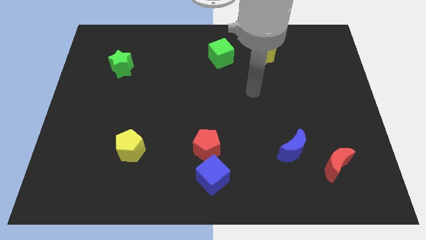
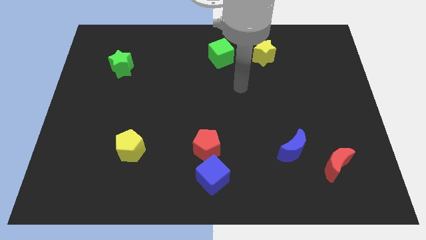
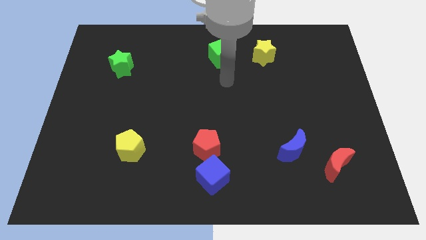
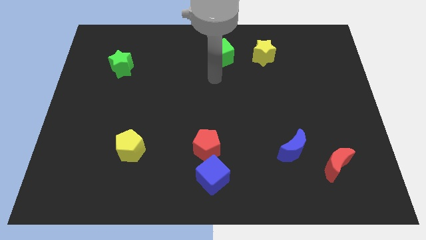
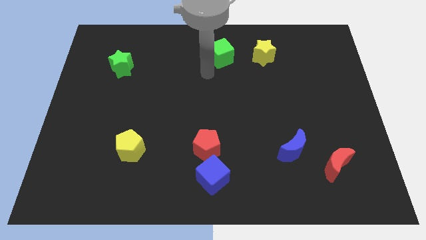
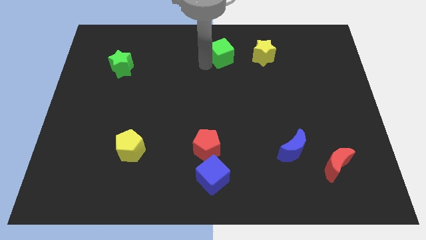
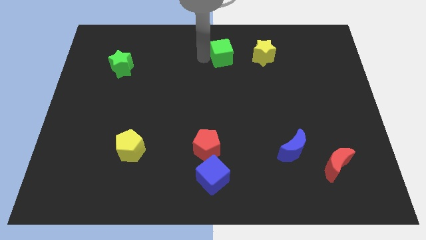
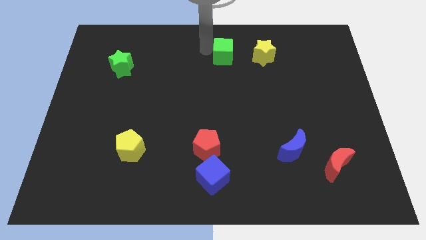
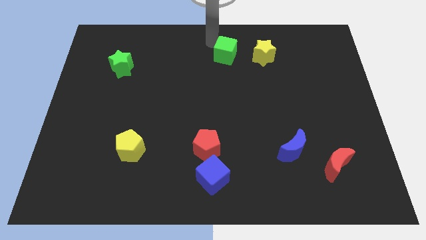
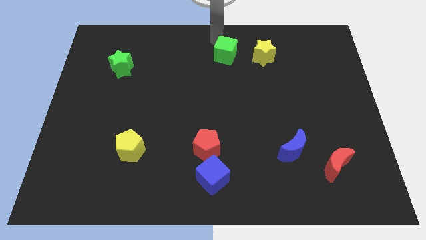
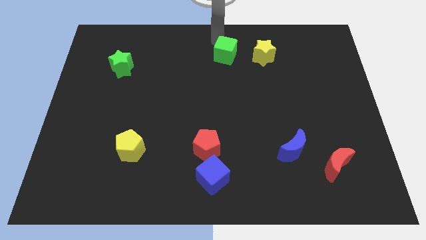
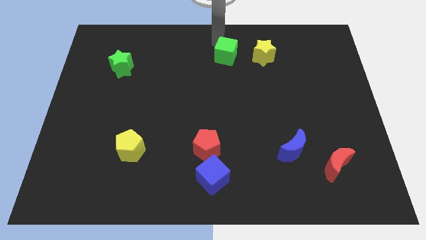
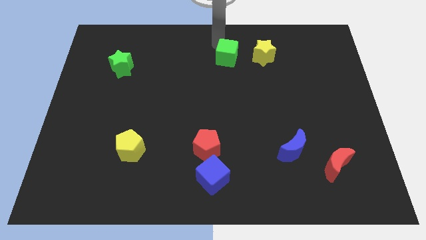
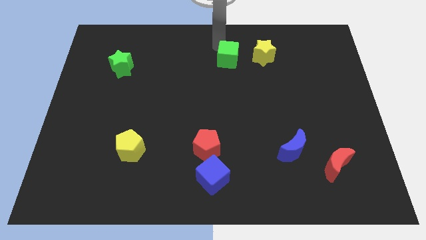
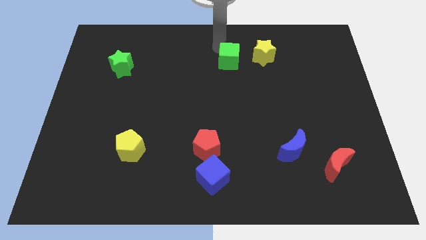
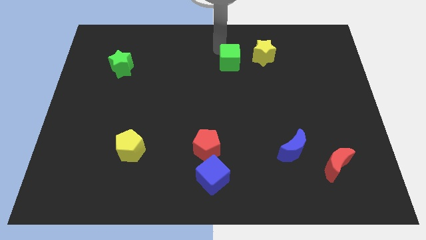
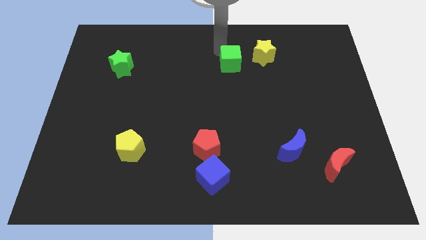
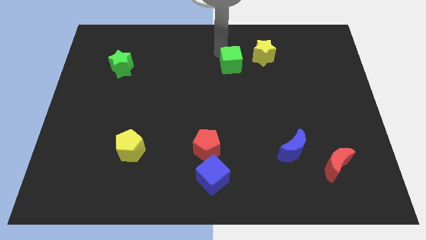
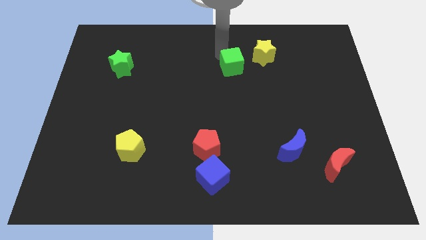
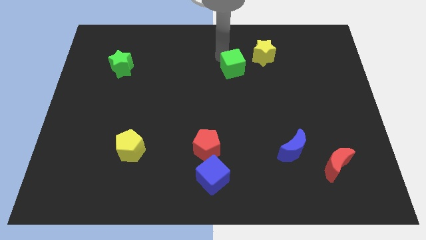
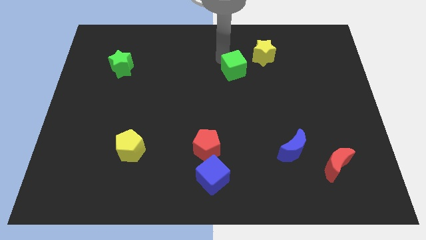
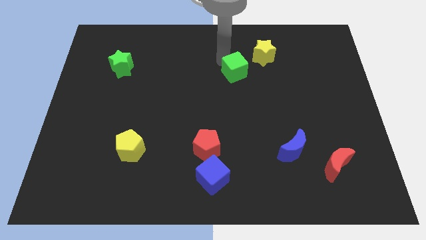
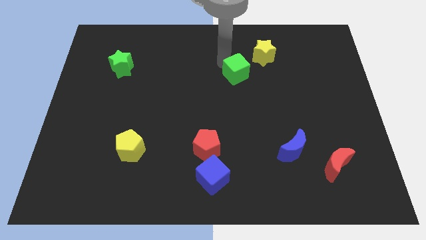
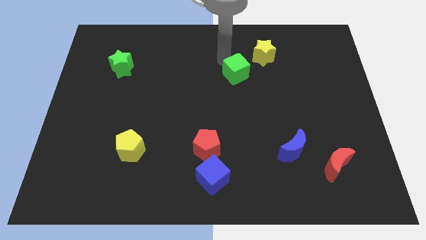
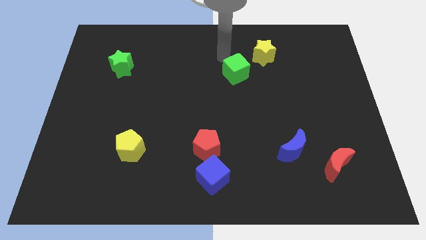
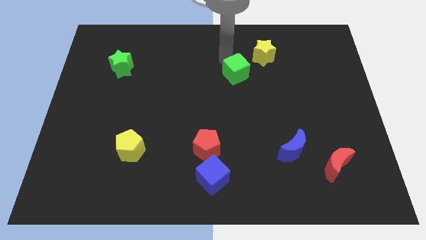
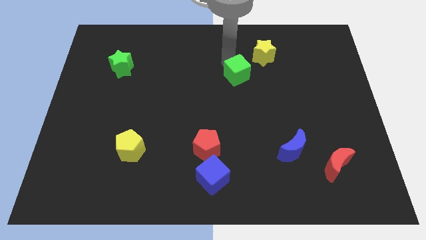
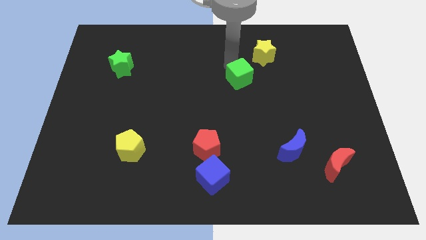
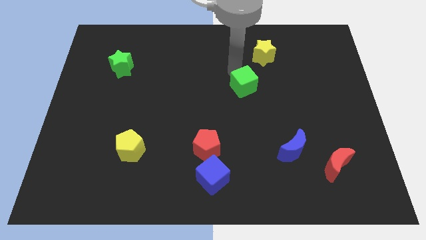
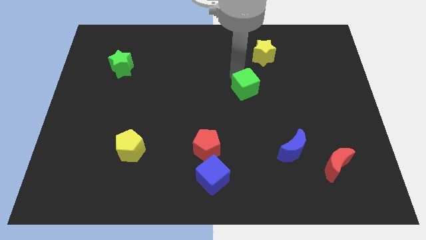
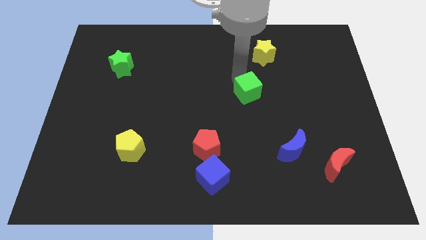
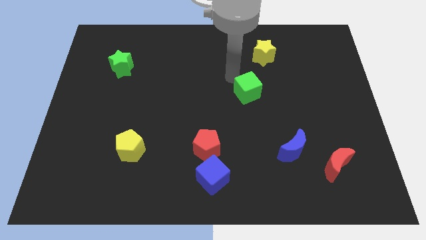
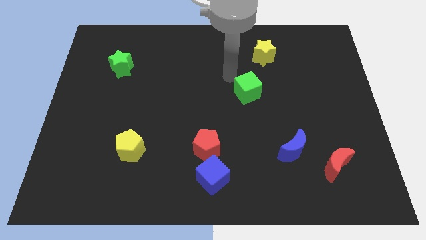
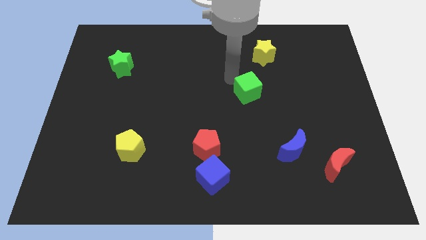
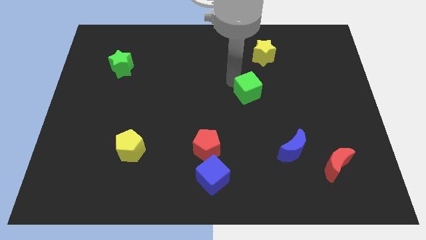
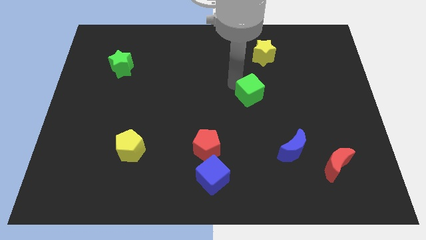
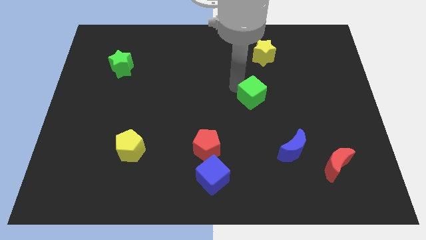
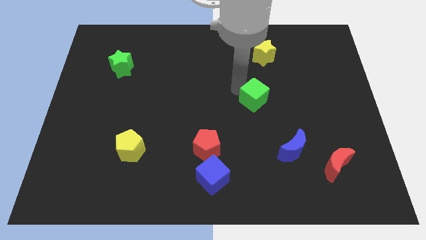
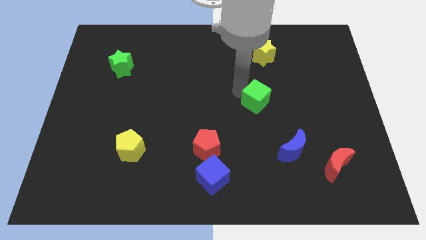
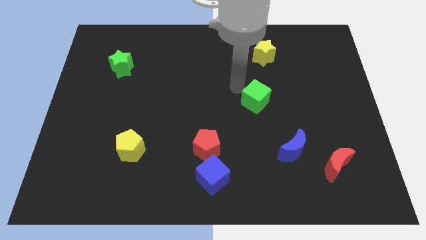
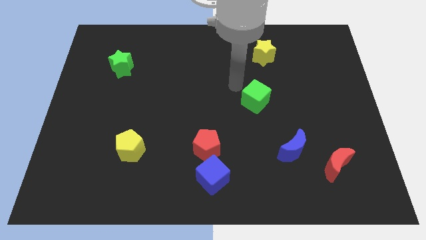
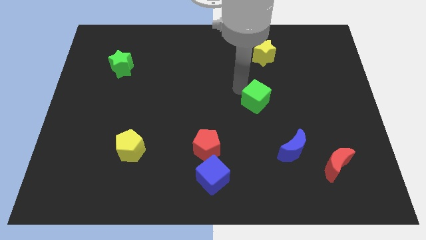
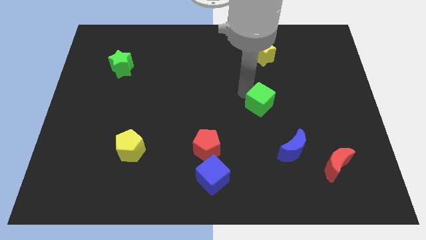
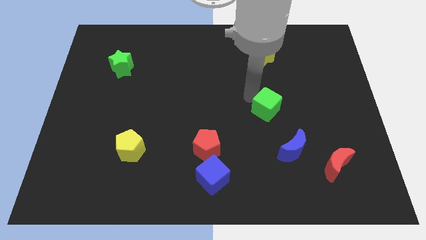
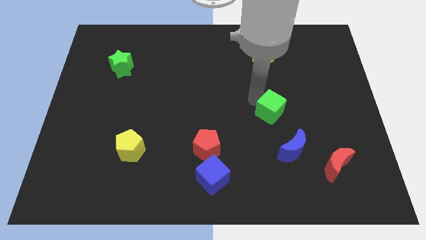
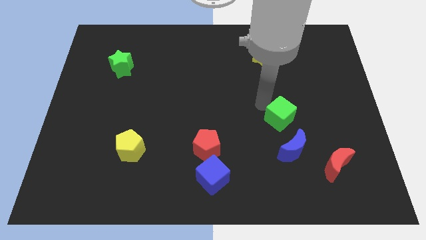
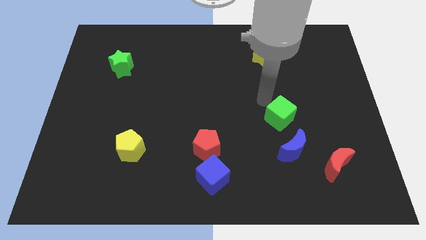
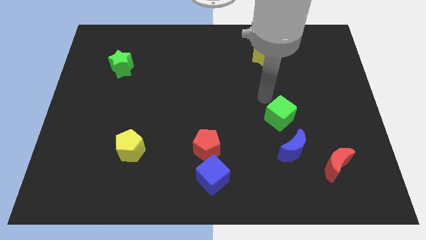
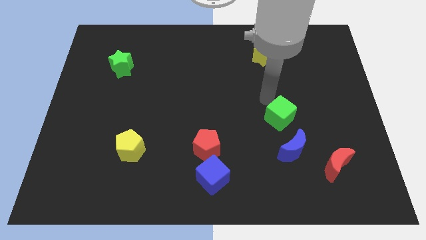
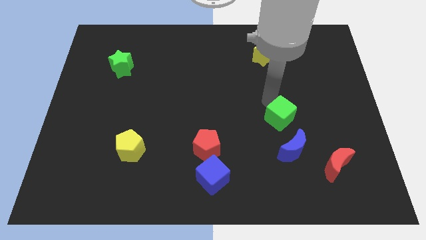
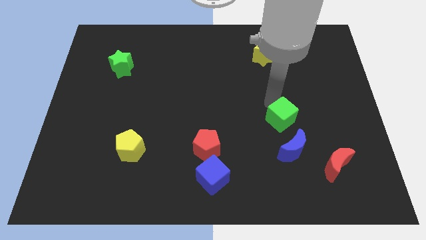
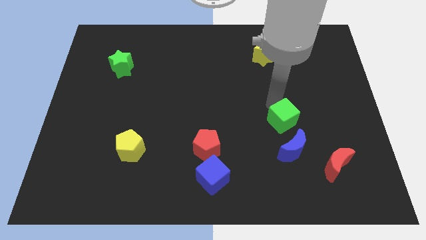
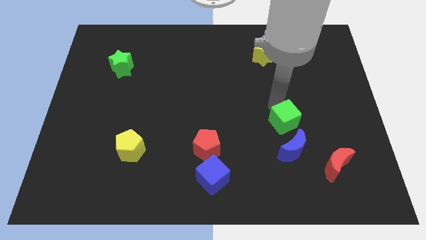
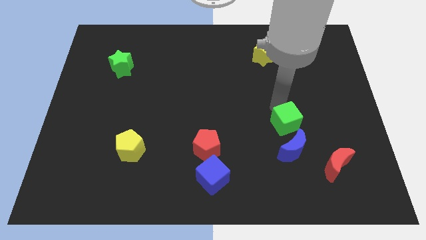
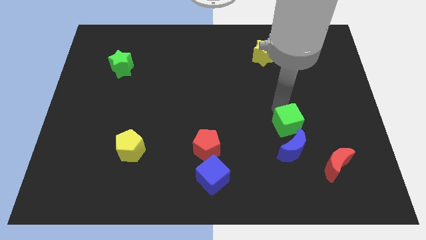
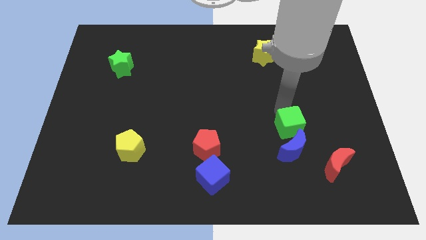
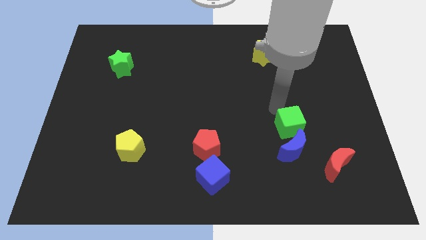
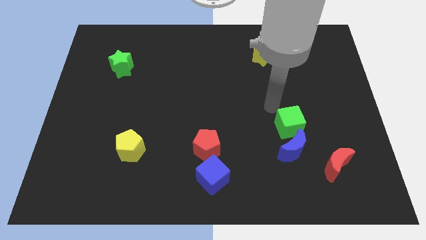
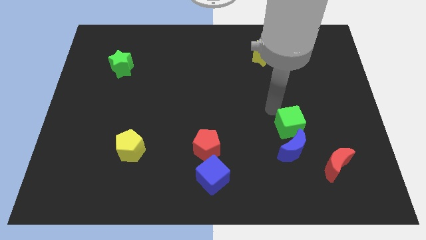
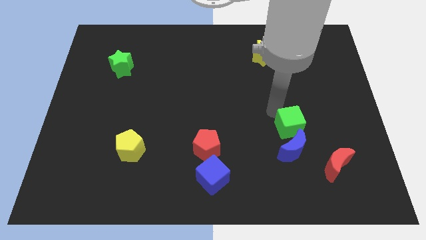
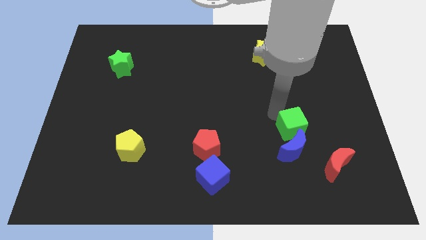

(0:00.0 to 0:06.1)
move the green cube diagonally up and to the left of the red moon

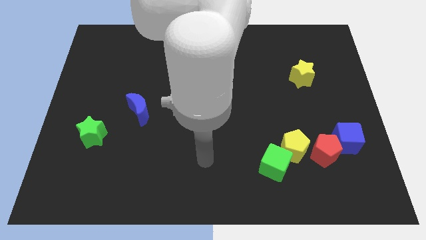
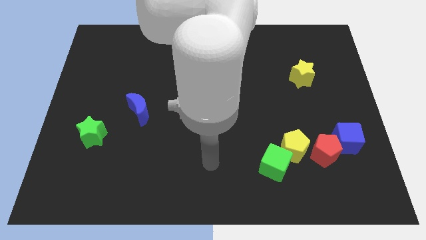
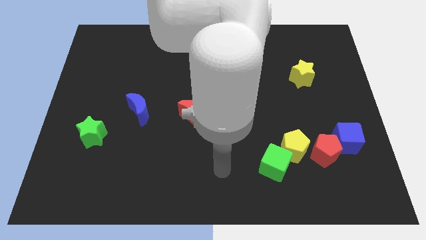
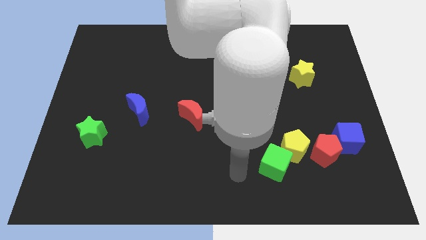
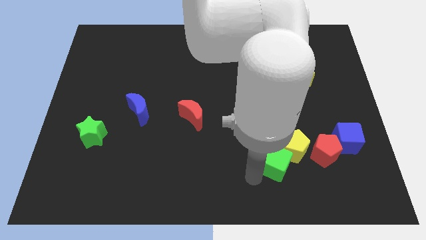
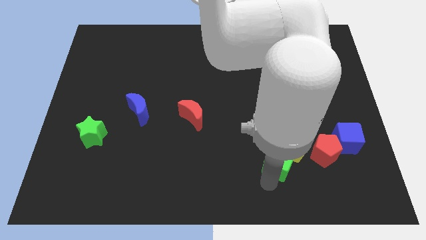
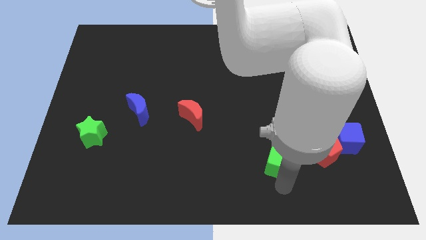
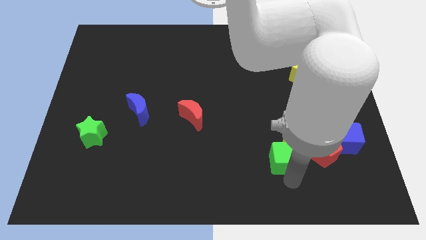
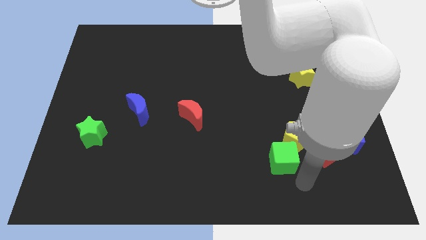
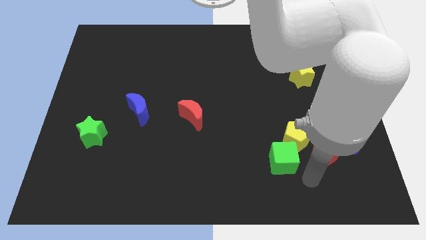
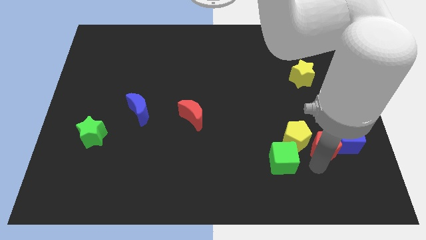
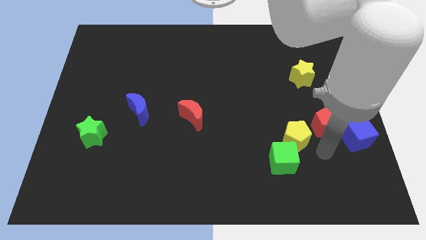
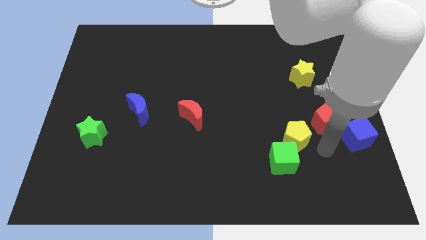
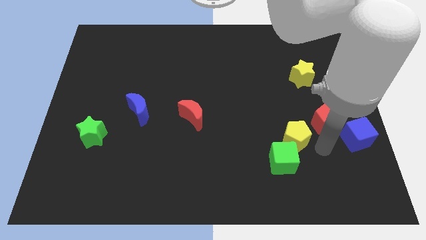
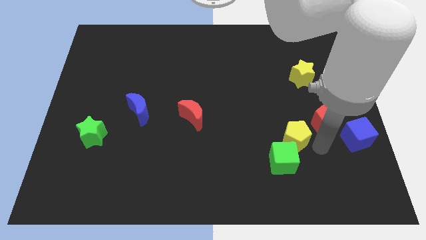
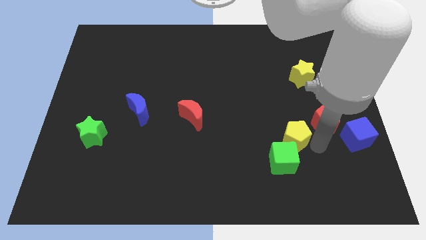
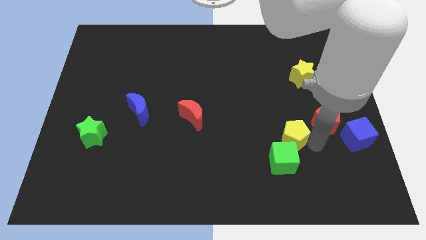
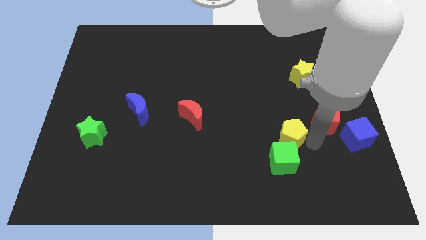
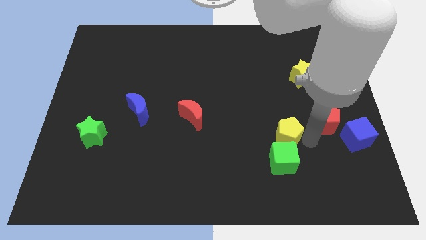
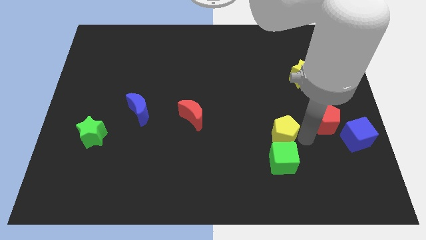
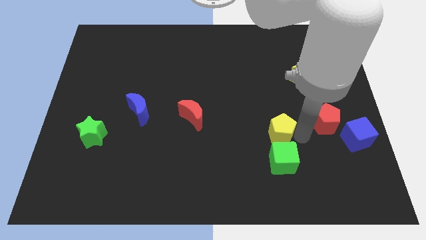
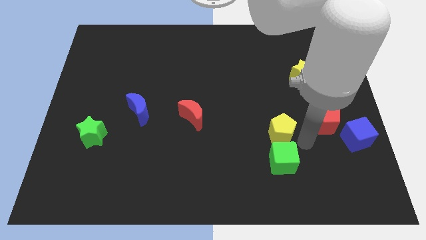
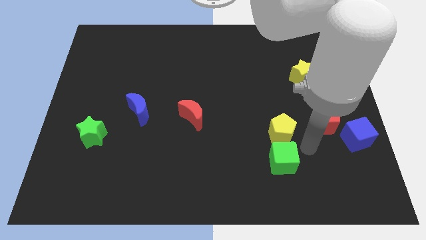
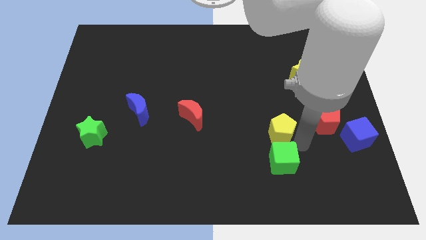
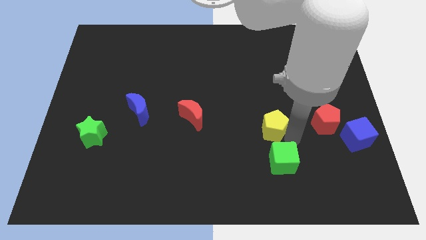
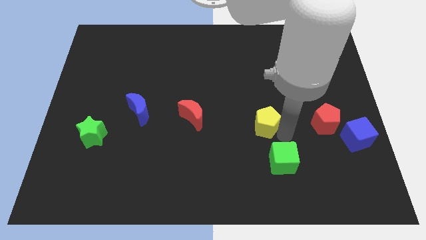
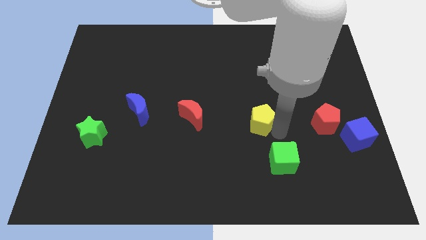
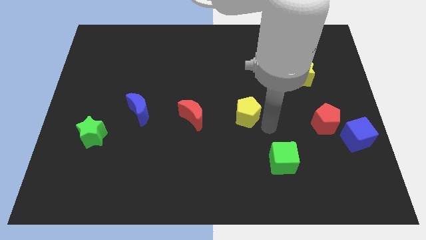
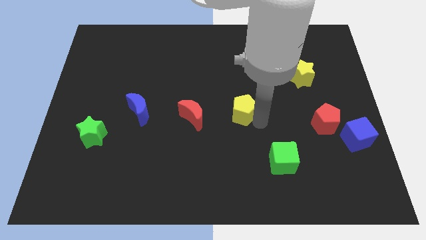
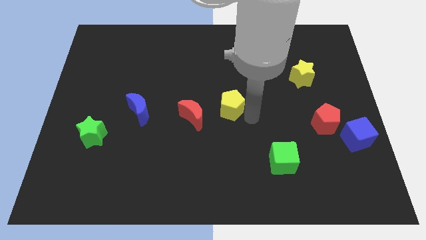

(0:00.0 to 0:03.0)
move the yellow pentagon diagonally up and to the right of the red moon
